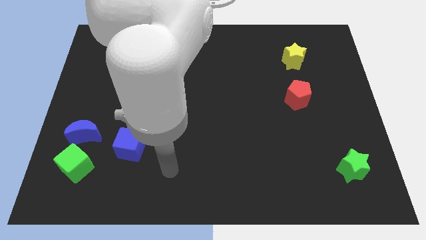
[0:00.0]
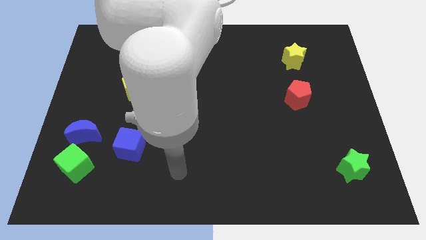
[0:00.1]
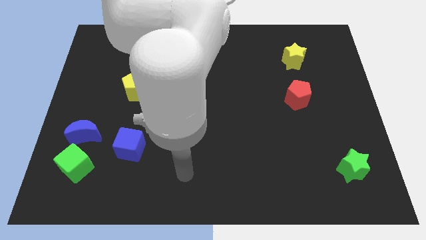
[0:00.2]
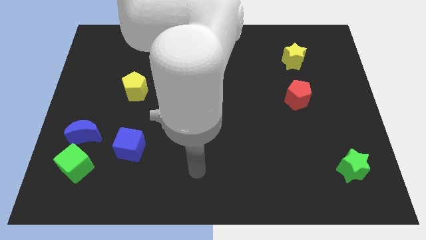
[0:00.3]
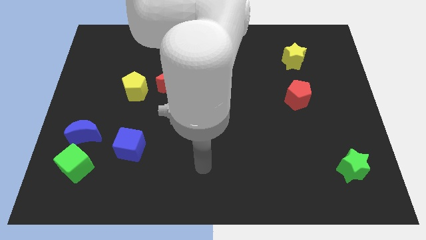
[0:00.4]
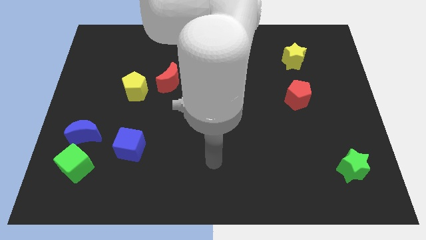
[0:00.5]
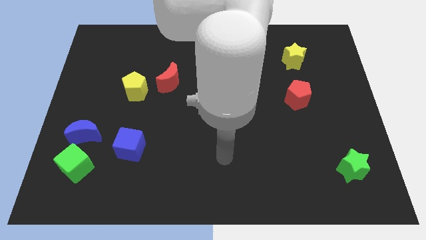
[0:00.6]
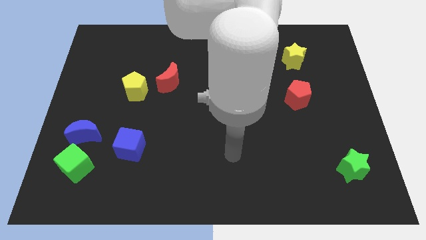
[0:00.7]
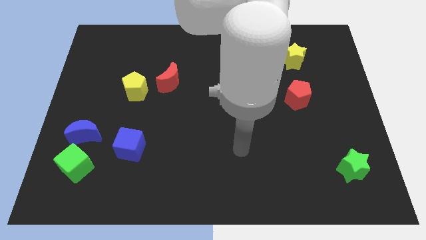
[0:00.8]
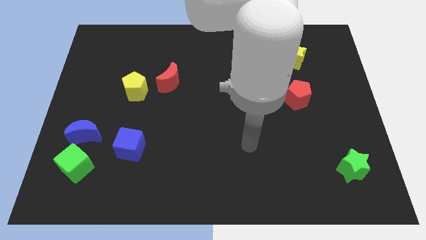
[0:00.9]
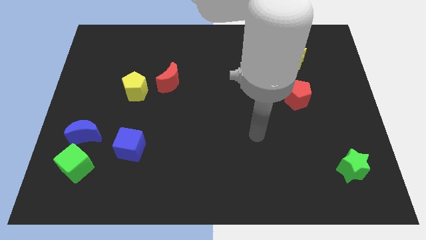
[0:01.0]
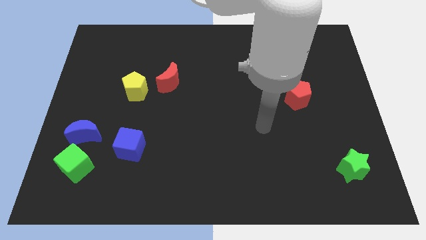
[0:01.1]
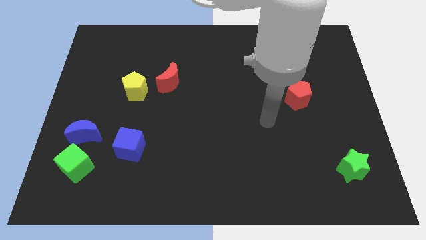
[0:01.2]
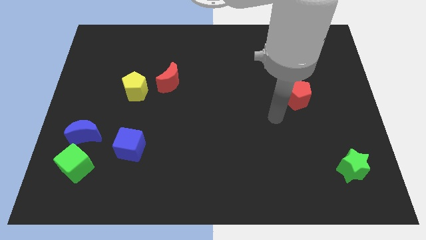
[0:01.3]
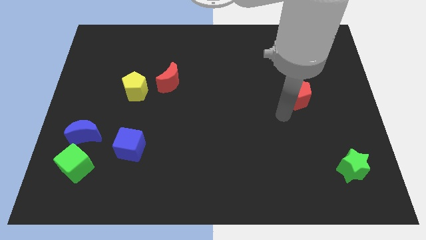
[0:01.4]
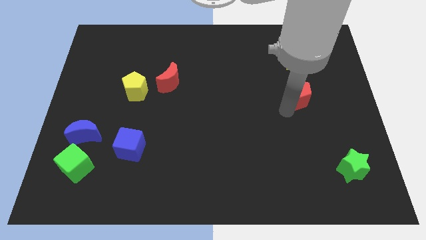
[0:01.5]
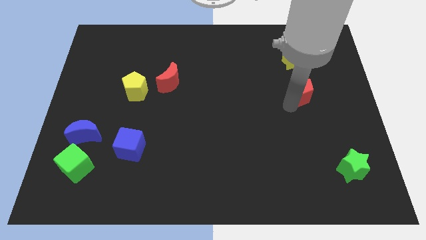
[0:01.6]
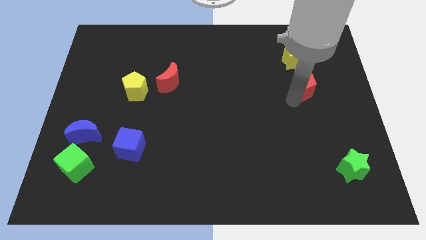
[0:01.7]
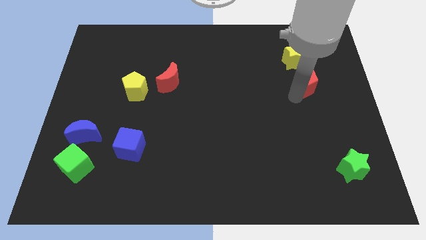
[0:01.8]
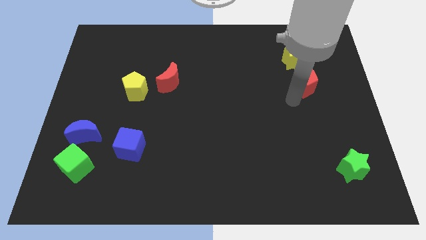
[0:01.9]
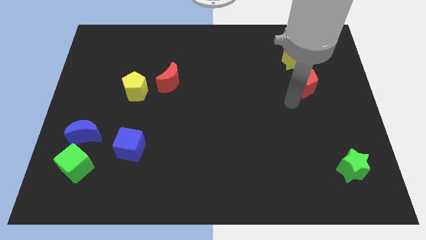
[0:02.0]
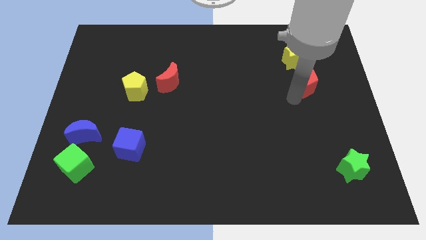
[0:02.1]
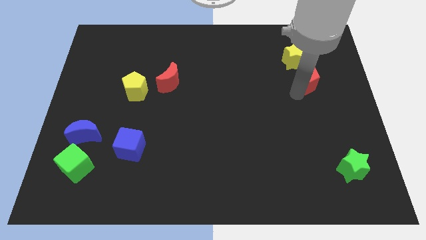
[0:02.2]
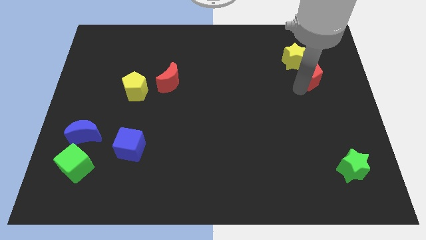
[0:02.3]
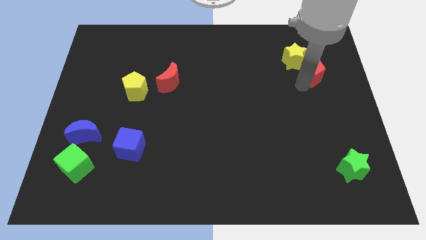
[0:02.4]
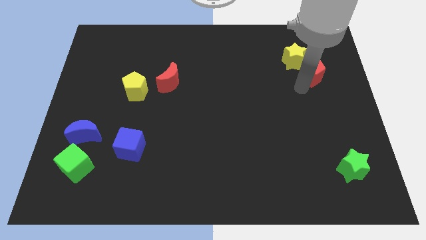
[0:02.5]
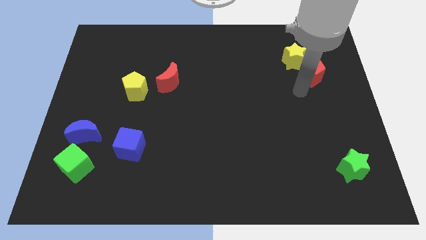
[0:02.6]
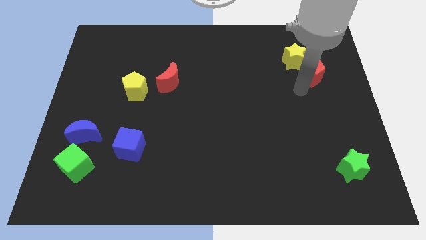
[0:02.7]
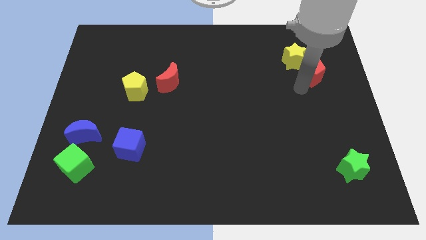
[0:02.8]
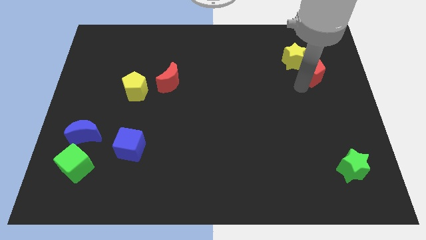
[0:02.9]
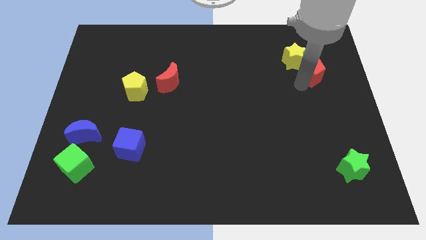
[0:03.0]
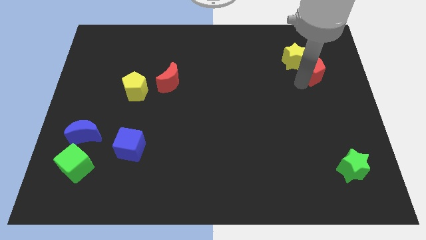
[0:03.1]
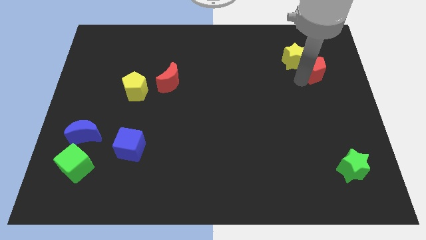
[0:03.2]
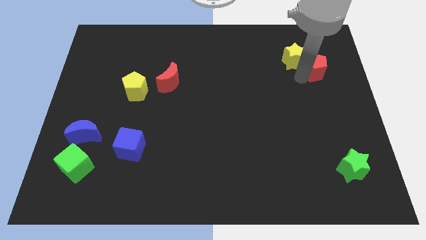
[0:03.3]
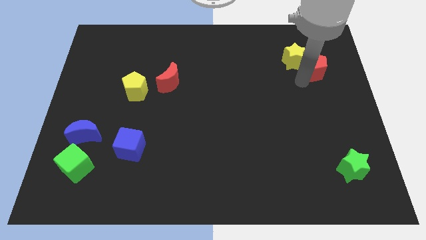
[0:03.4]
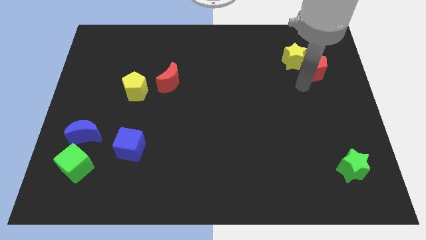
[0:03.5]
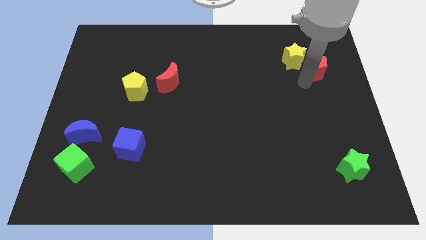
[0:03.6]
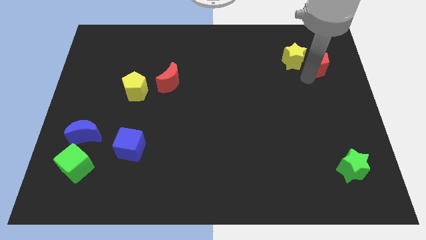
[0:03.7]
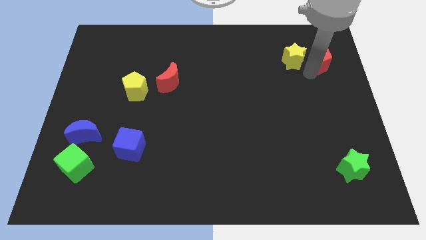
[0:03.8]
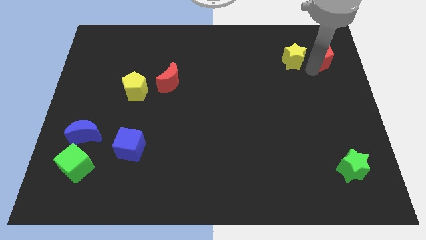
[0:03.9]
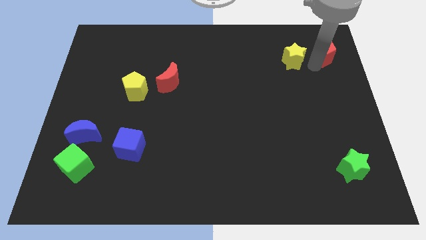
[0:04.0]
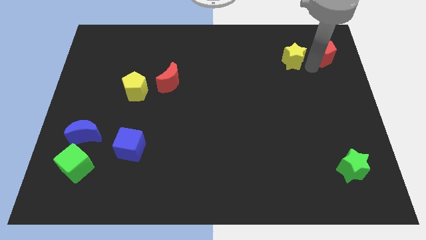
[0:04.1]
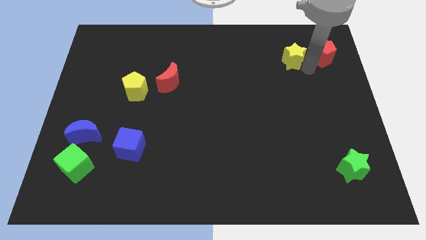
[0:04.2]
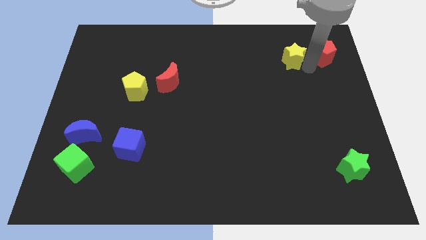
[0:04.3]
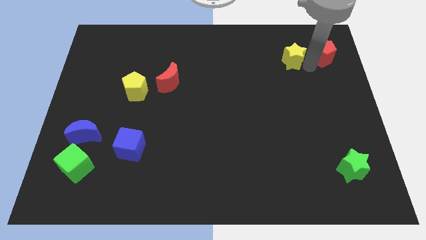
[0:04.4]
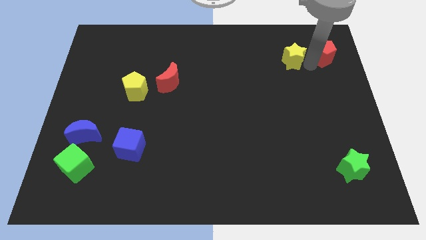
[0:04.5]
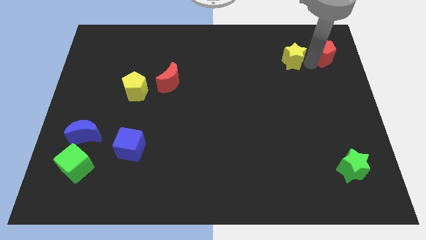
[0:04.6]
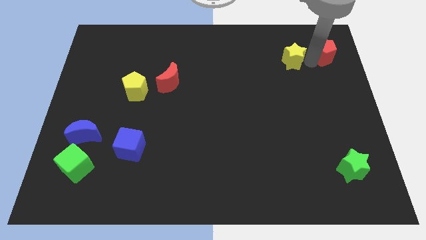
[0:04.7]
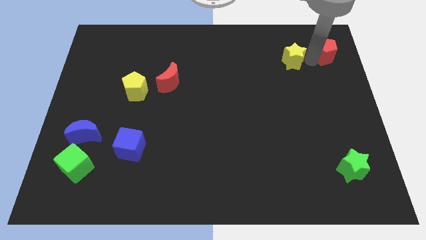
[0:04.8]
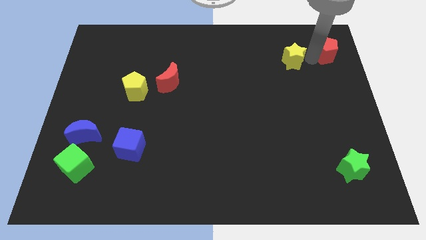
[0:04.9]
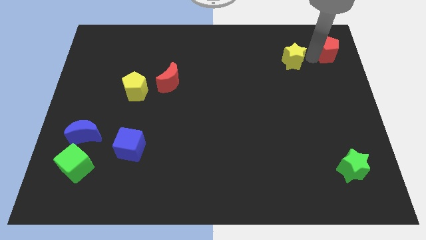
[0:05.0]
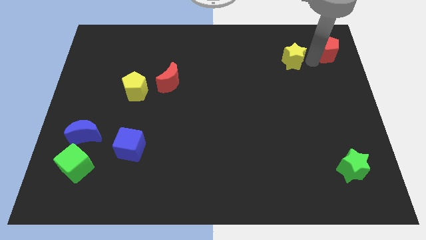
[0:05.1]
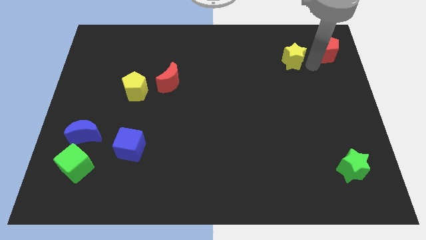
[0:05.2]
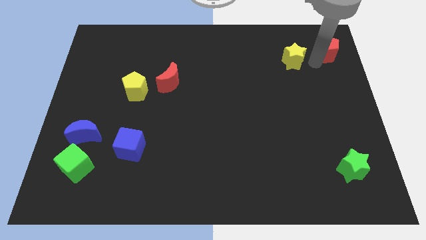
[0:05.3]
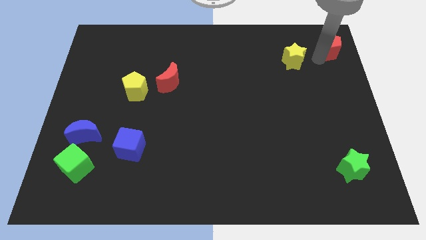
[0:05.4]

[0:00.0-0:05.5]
push the red pentagon to the upper right corner

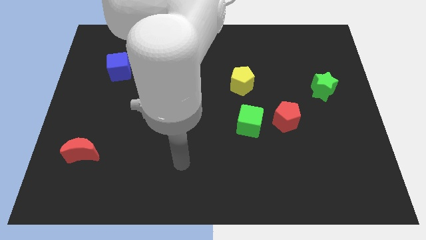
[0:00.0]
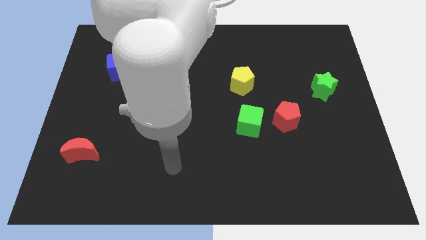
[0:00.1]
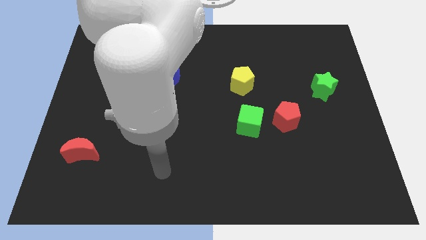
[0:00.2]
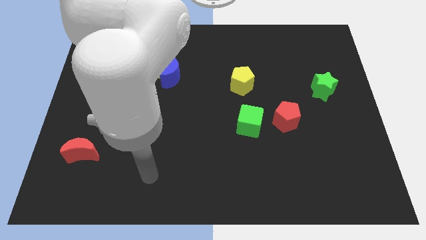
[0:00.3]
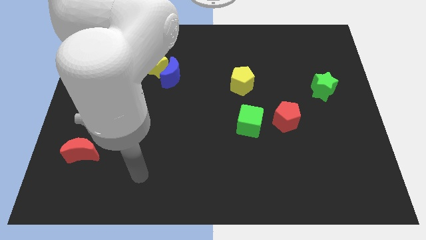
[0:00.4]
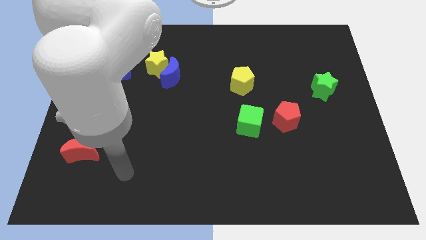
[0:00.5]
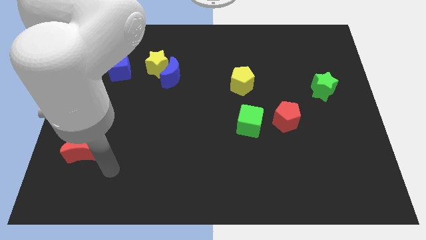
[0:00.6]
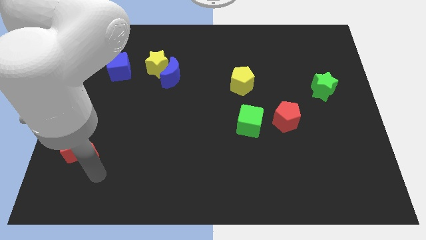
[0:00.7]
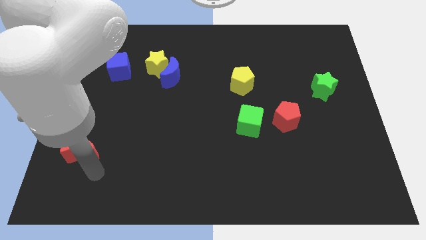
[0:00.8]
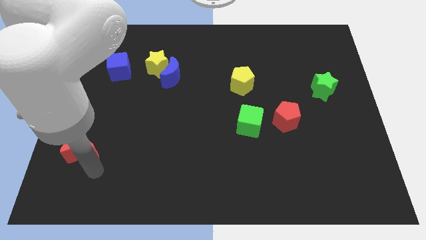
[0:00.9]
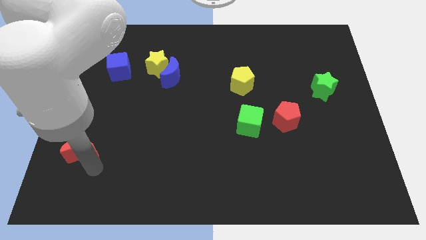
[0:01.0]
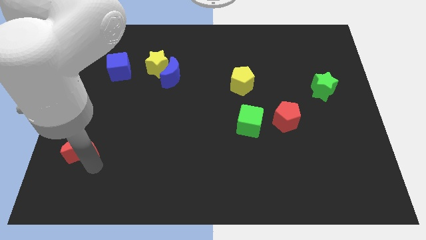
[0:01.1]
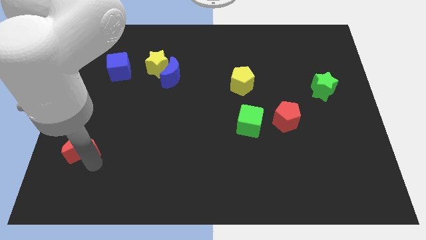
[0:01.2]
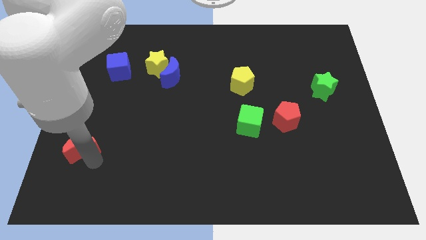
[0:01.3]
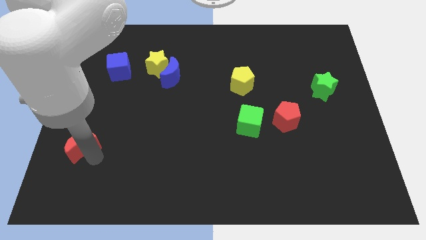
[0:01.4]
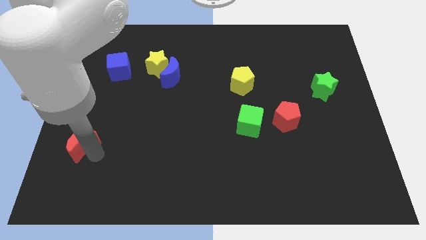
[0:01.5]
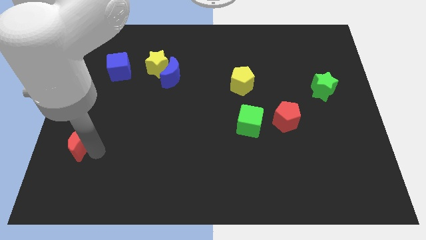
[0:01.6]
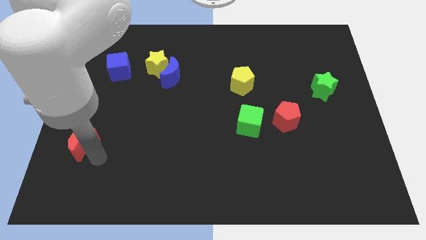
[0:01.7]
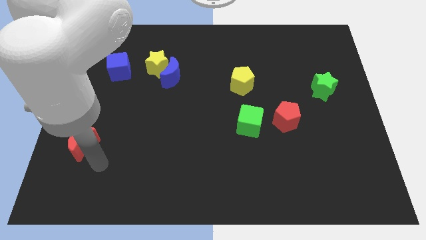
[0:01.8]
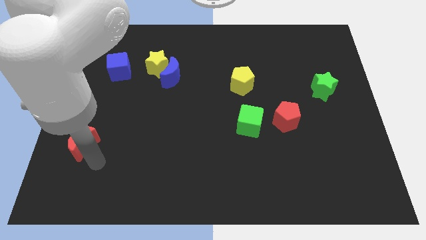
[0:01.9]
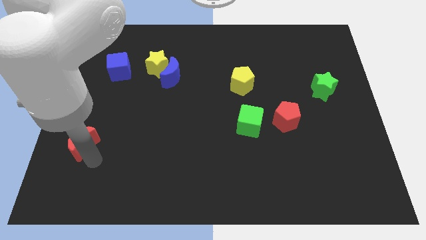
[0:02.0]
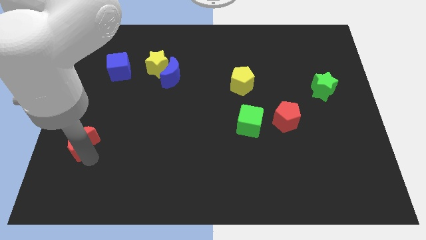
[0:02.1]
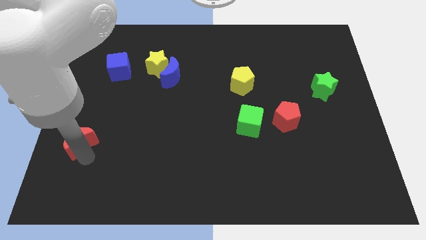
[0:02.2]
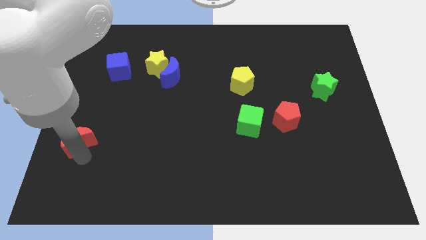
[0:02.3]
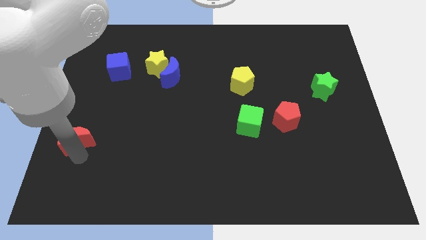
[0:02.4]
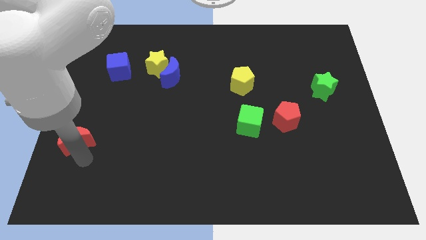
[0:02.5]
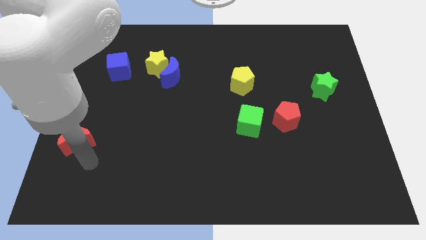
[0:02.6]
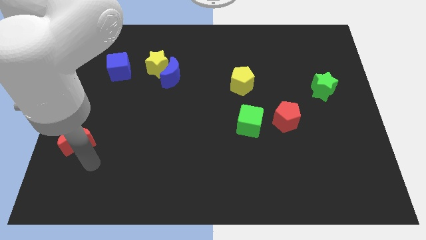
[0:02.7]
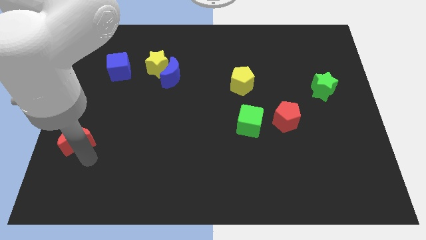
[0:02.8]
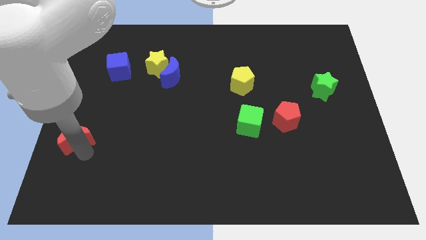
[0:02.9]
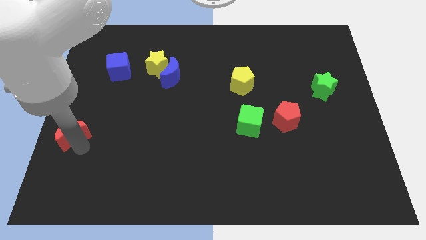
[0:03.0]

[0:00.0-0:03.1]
move the red moon to the left side of the board
